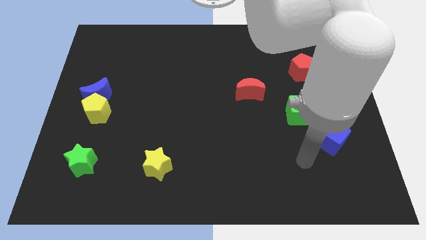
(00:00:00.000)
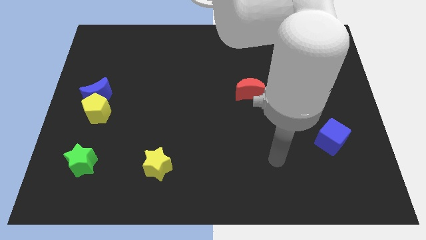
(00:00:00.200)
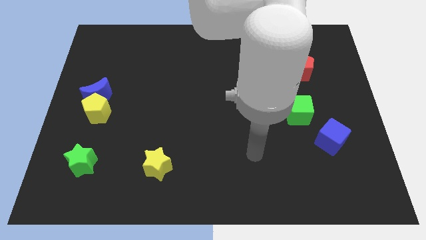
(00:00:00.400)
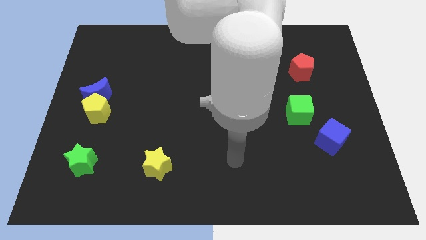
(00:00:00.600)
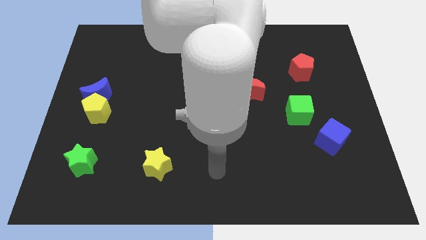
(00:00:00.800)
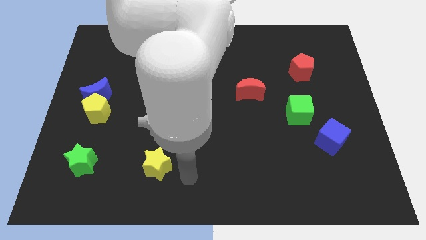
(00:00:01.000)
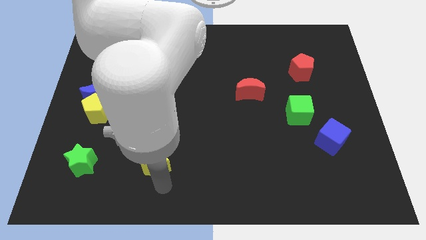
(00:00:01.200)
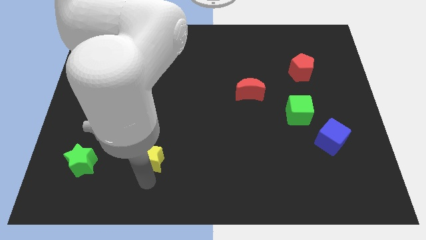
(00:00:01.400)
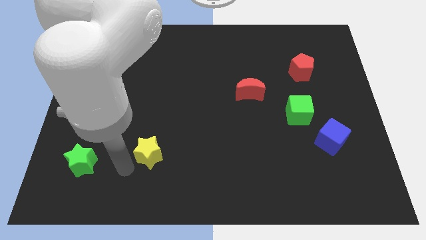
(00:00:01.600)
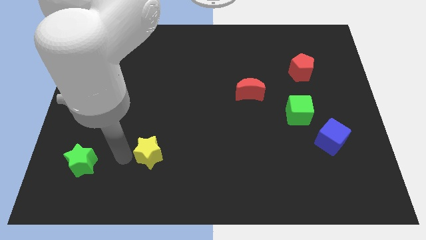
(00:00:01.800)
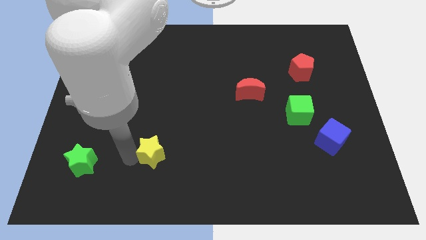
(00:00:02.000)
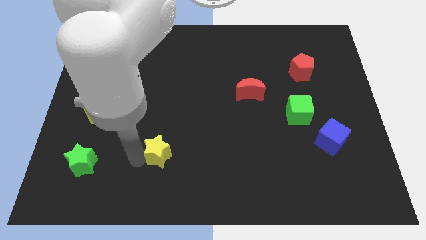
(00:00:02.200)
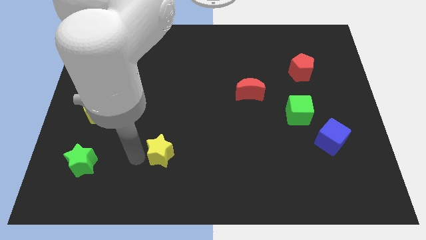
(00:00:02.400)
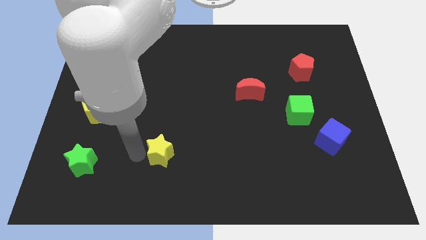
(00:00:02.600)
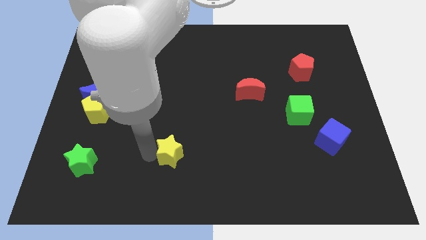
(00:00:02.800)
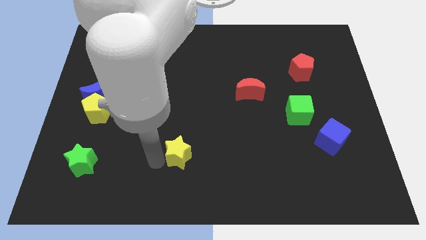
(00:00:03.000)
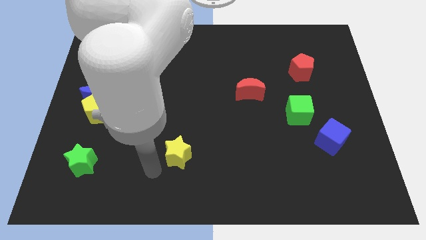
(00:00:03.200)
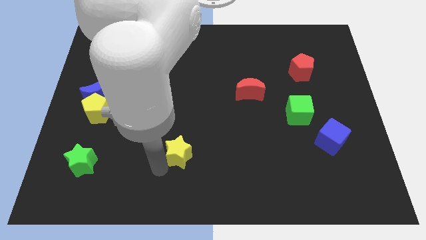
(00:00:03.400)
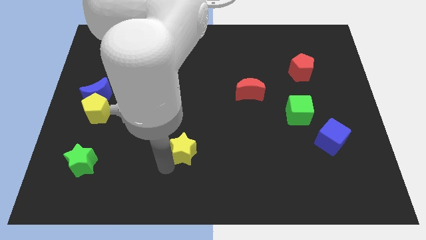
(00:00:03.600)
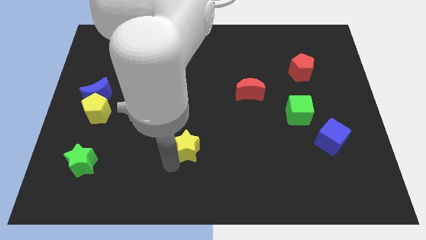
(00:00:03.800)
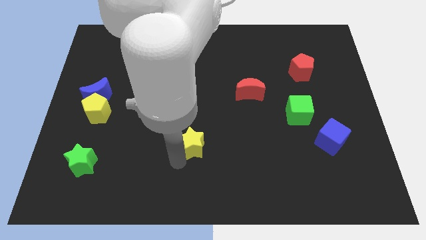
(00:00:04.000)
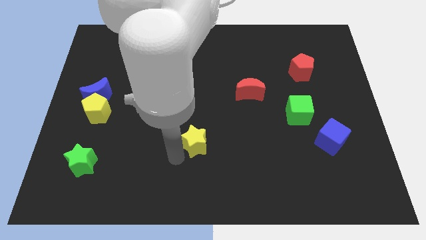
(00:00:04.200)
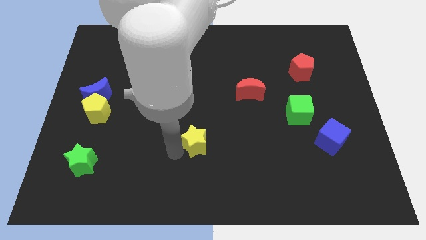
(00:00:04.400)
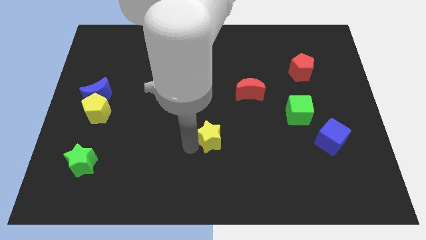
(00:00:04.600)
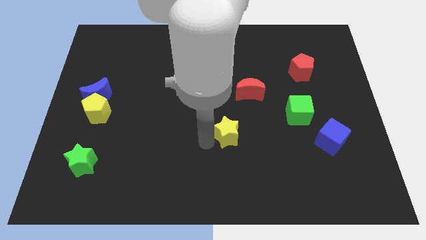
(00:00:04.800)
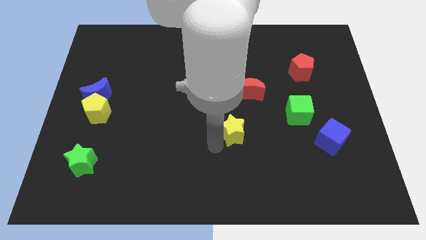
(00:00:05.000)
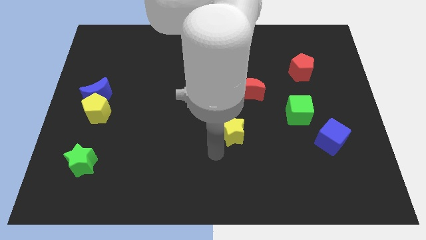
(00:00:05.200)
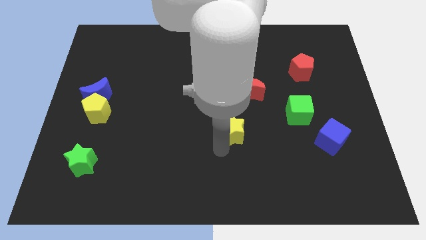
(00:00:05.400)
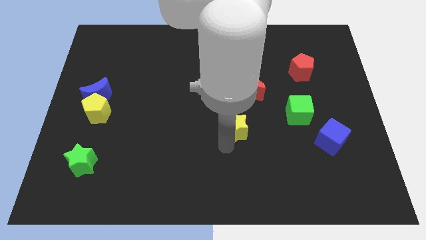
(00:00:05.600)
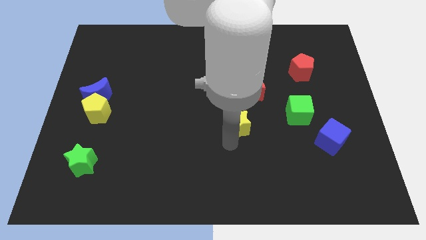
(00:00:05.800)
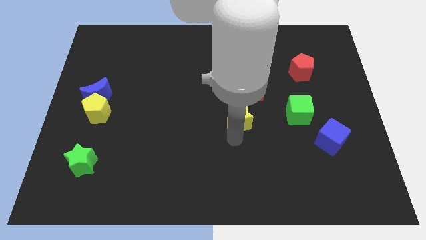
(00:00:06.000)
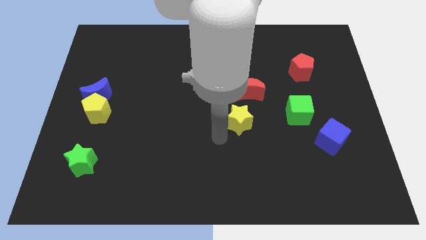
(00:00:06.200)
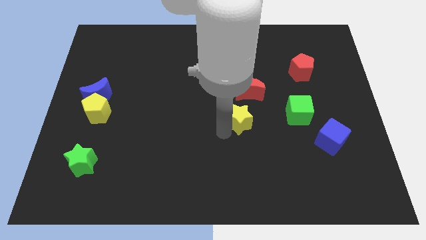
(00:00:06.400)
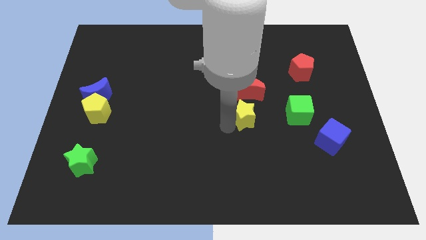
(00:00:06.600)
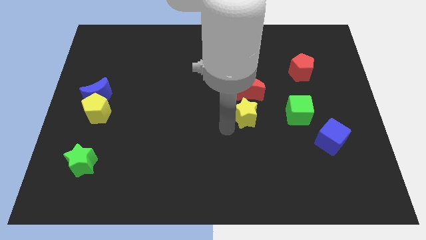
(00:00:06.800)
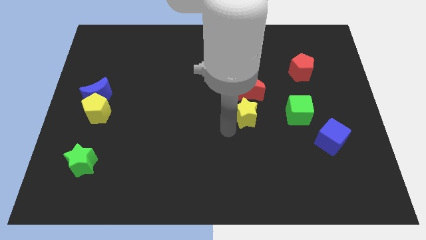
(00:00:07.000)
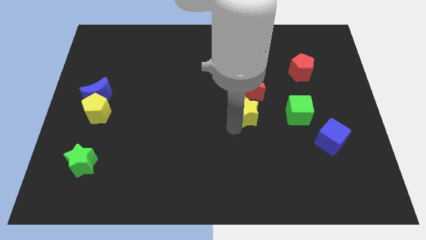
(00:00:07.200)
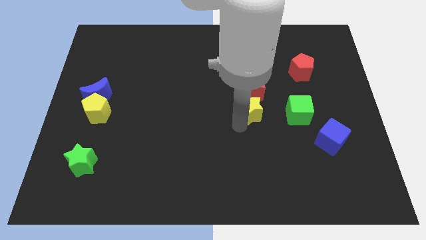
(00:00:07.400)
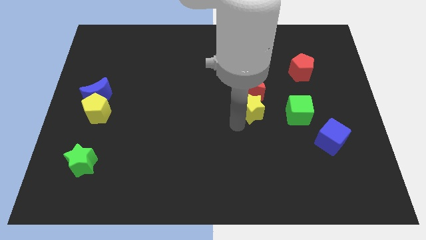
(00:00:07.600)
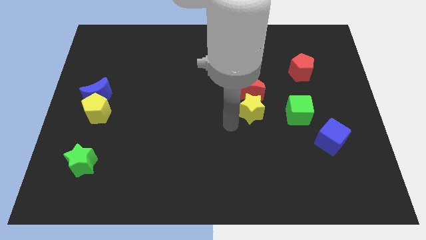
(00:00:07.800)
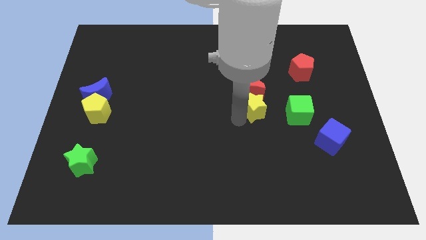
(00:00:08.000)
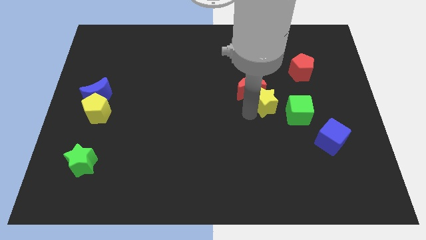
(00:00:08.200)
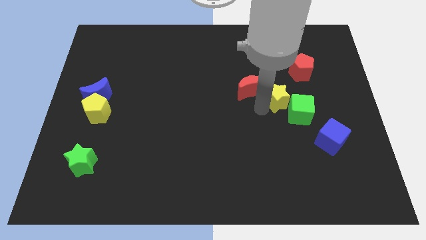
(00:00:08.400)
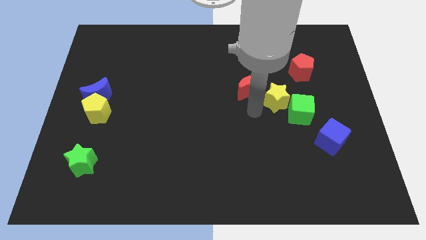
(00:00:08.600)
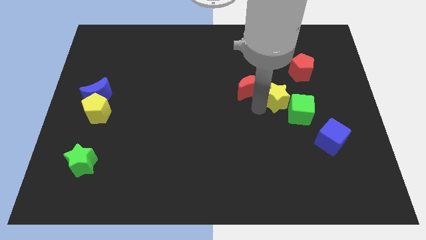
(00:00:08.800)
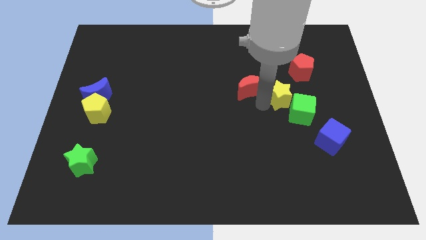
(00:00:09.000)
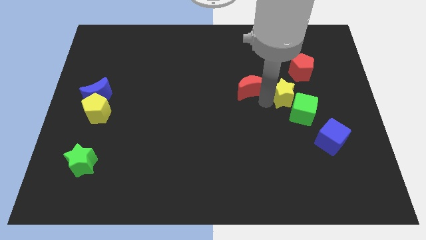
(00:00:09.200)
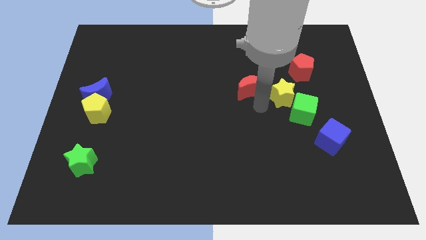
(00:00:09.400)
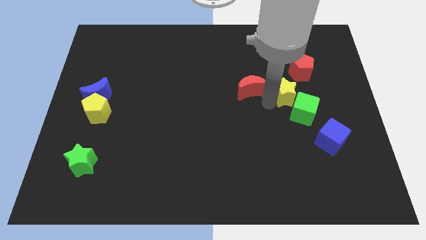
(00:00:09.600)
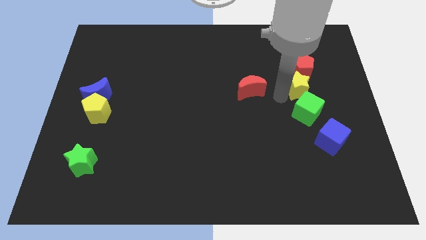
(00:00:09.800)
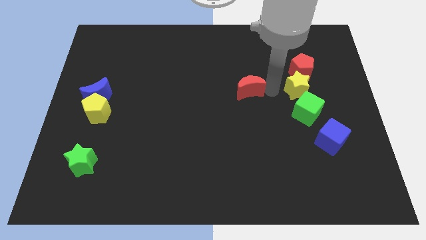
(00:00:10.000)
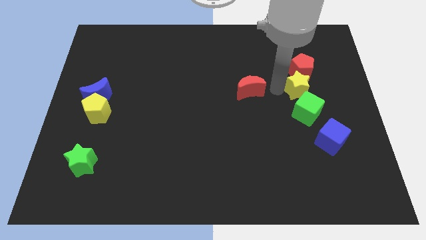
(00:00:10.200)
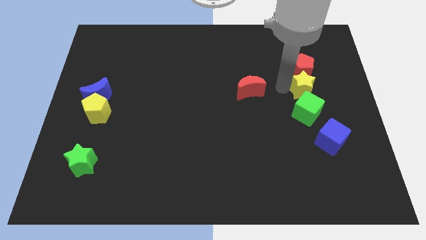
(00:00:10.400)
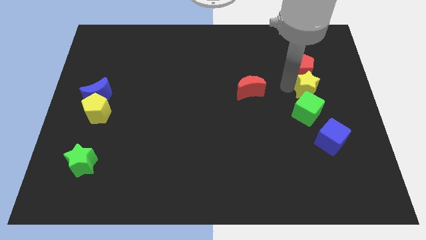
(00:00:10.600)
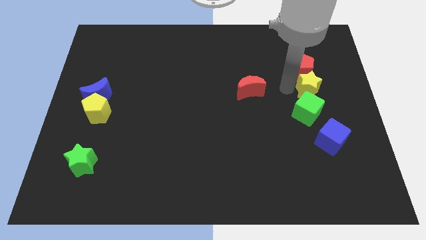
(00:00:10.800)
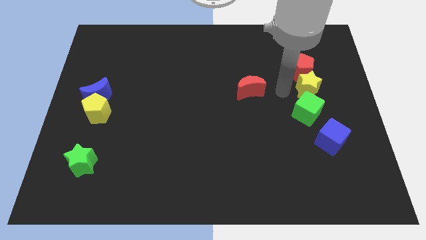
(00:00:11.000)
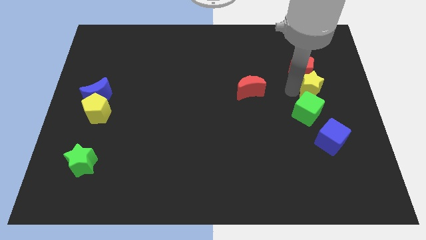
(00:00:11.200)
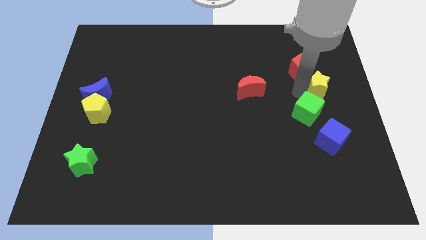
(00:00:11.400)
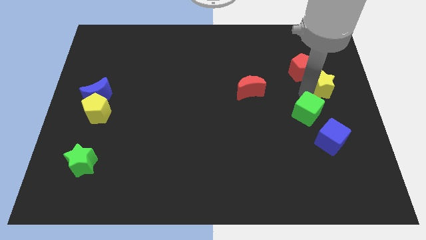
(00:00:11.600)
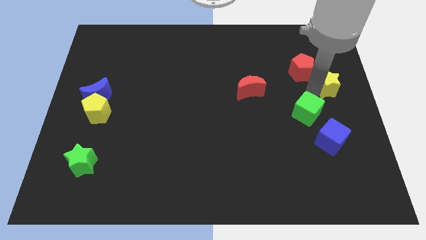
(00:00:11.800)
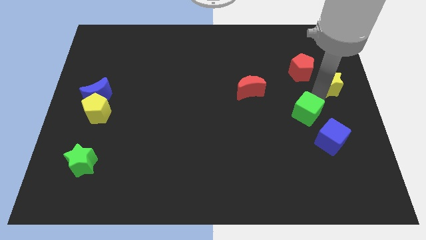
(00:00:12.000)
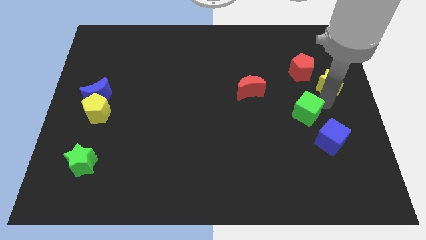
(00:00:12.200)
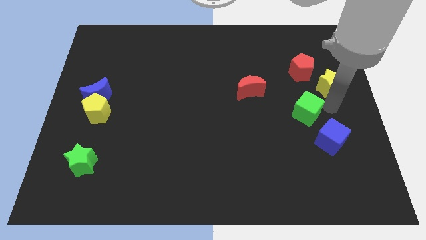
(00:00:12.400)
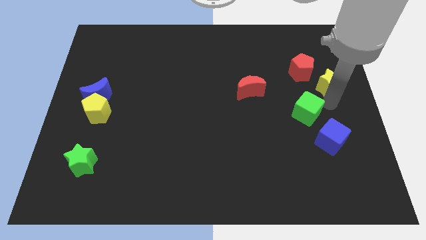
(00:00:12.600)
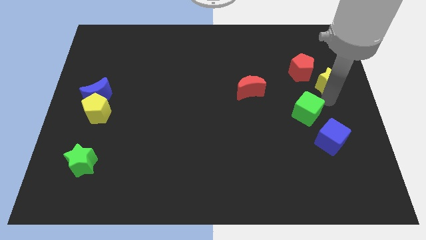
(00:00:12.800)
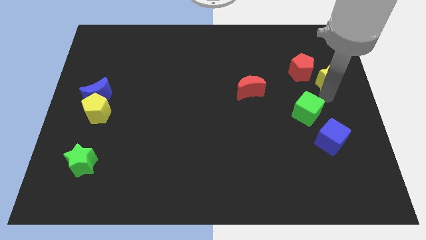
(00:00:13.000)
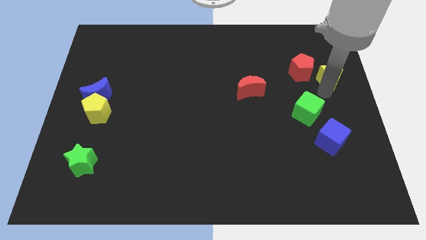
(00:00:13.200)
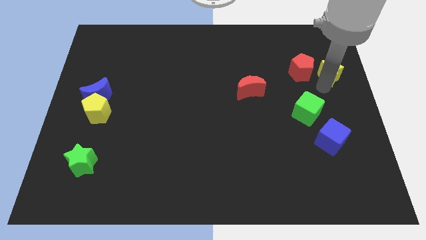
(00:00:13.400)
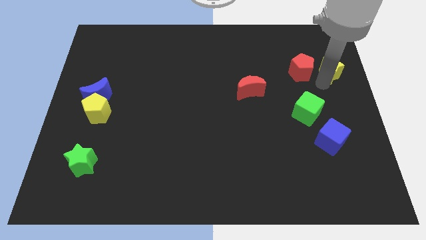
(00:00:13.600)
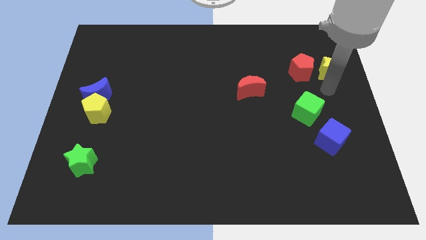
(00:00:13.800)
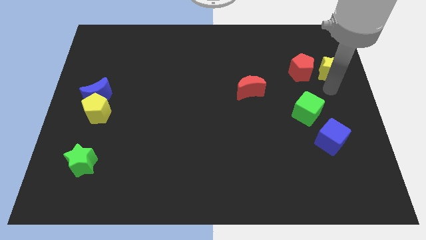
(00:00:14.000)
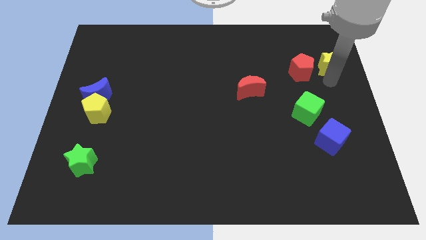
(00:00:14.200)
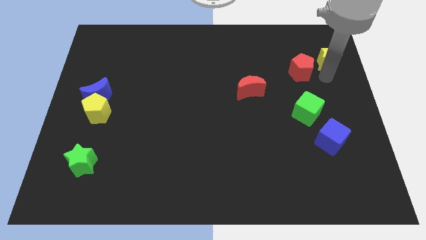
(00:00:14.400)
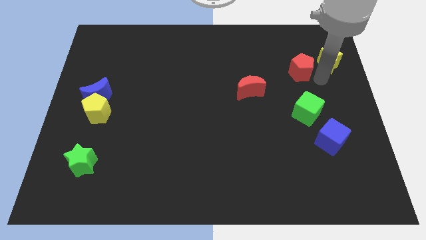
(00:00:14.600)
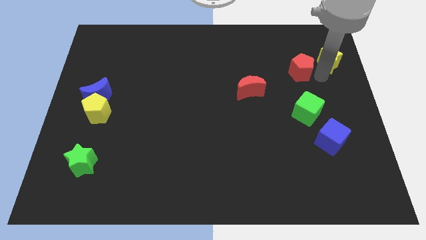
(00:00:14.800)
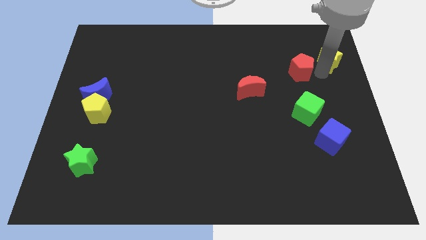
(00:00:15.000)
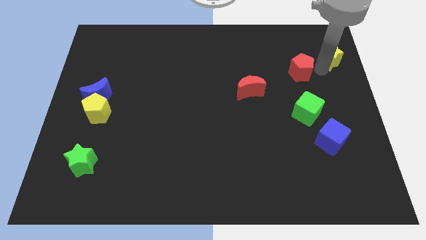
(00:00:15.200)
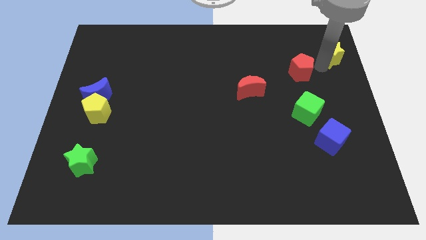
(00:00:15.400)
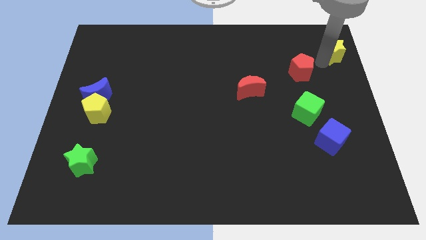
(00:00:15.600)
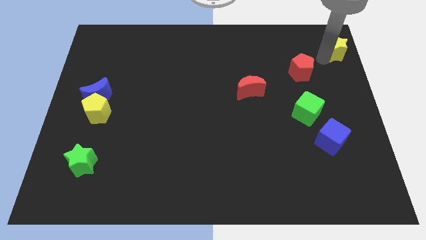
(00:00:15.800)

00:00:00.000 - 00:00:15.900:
push the yellow star to the top right of the board
